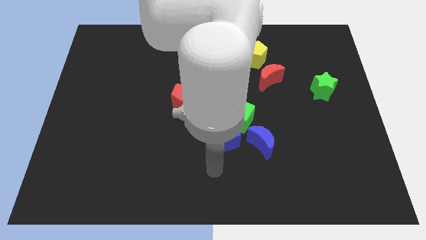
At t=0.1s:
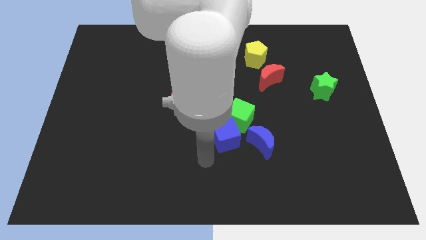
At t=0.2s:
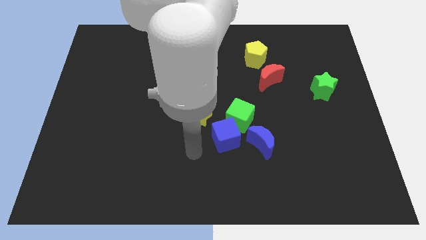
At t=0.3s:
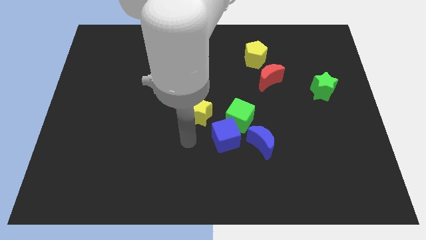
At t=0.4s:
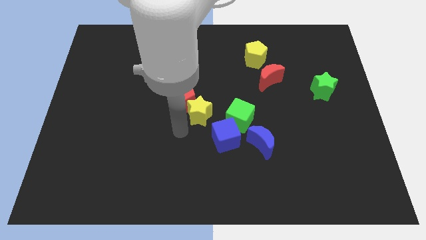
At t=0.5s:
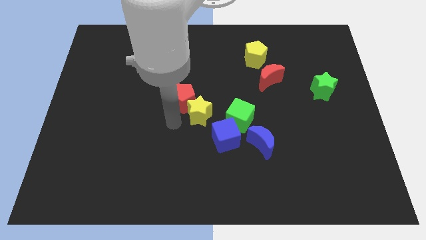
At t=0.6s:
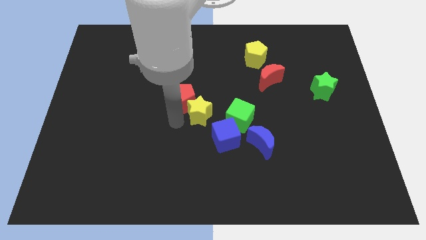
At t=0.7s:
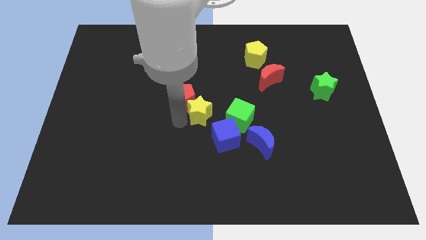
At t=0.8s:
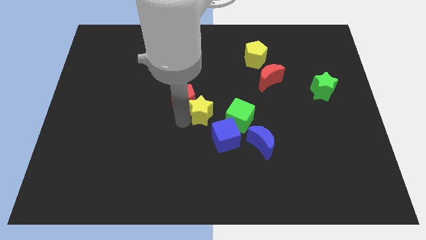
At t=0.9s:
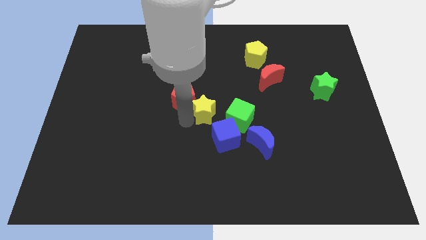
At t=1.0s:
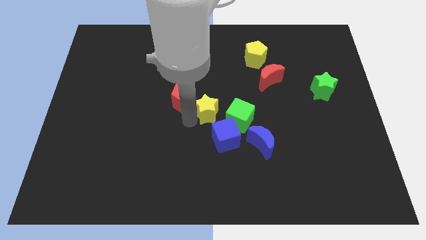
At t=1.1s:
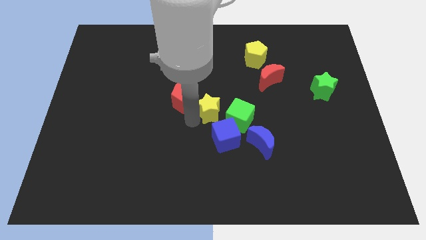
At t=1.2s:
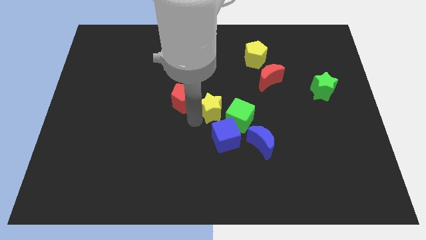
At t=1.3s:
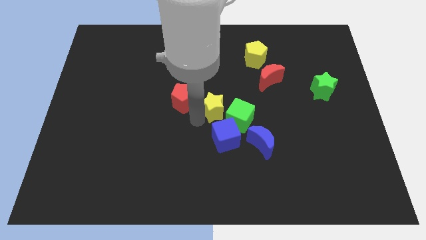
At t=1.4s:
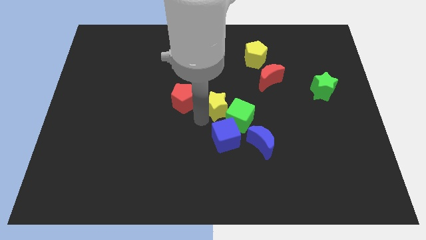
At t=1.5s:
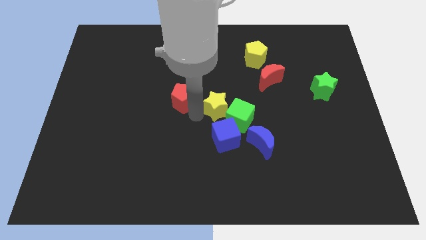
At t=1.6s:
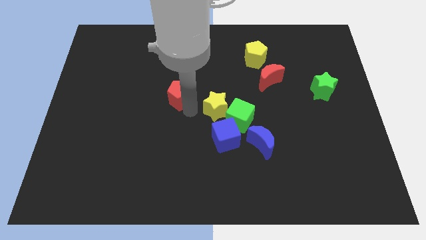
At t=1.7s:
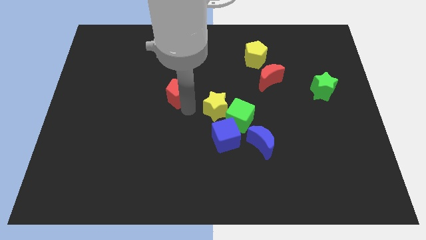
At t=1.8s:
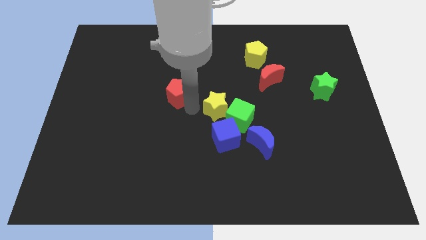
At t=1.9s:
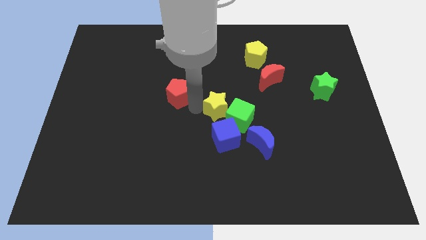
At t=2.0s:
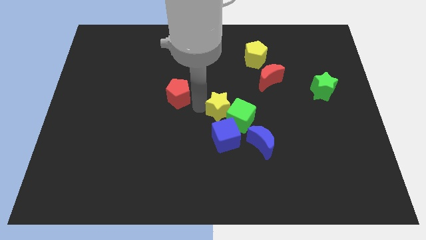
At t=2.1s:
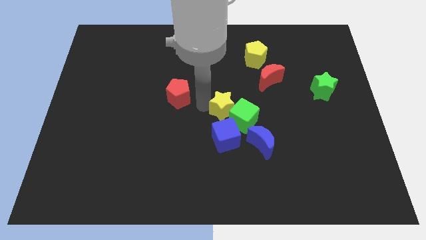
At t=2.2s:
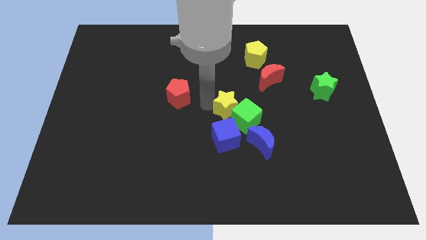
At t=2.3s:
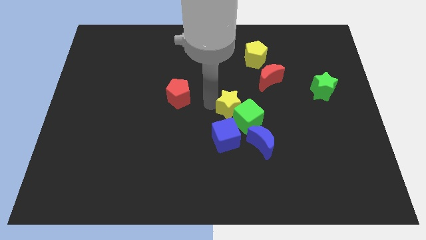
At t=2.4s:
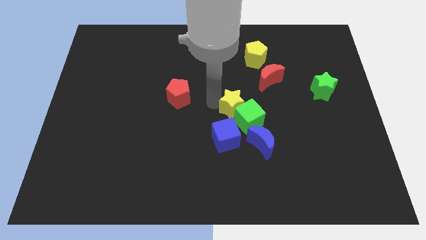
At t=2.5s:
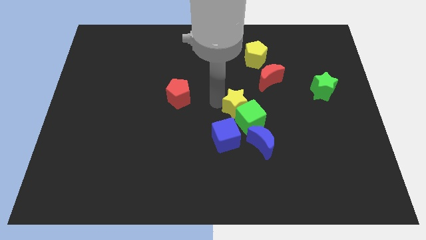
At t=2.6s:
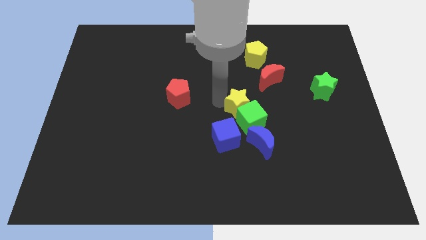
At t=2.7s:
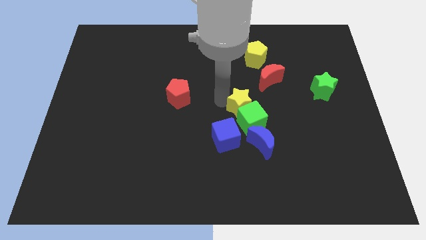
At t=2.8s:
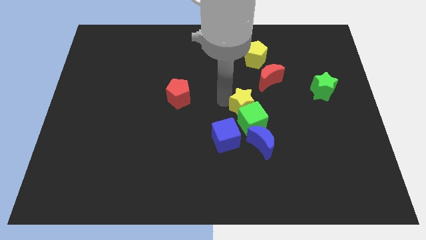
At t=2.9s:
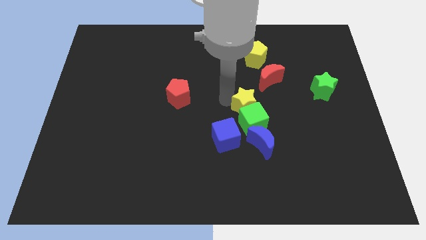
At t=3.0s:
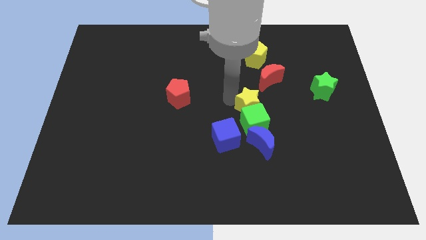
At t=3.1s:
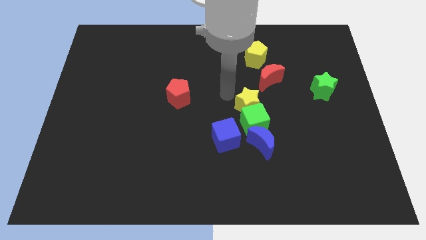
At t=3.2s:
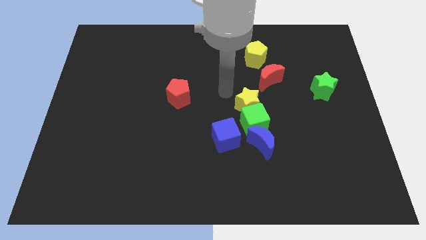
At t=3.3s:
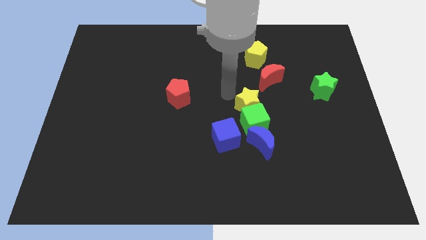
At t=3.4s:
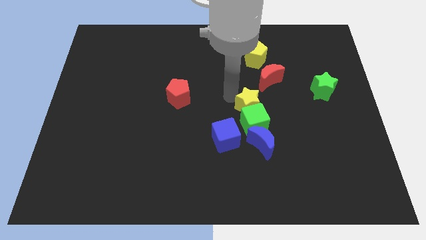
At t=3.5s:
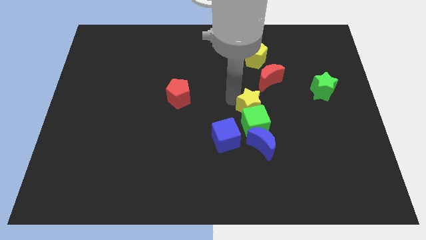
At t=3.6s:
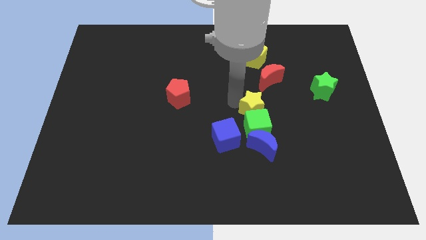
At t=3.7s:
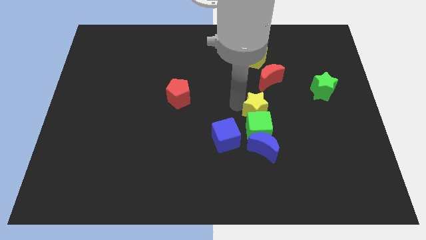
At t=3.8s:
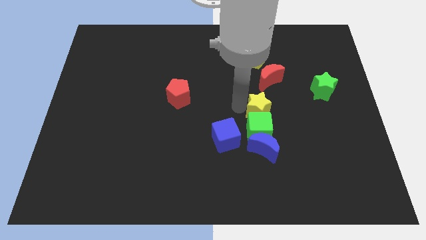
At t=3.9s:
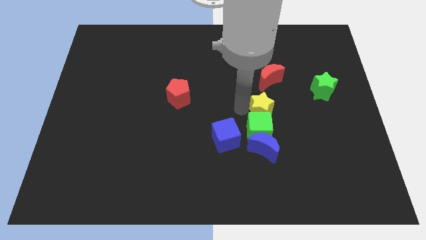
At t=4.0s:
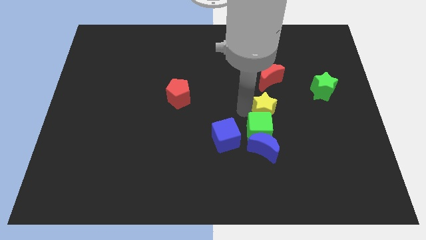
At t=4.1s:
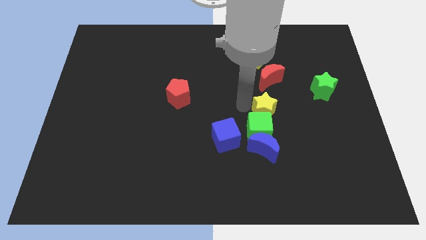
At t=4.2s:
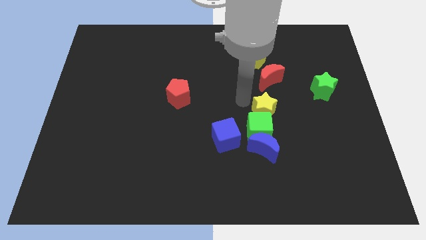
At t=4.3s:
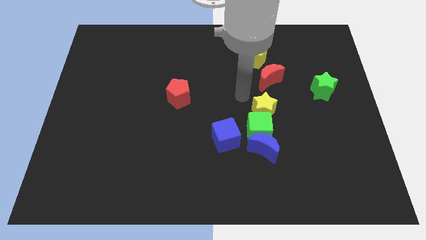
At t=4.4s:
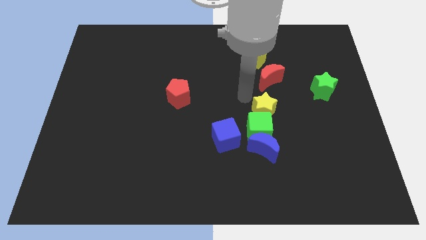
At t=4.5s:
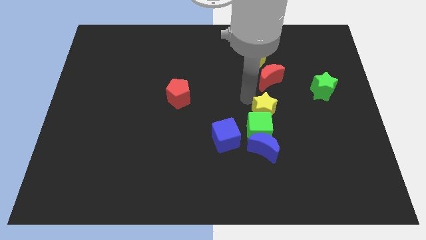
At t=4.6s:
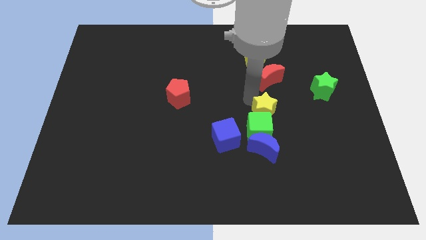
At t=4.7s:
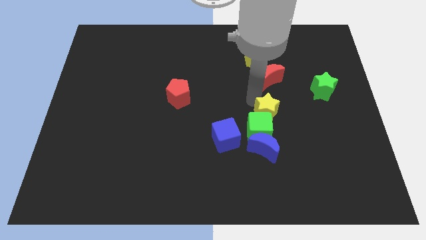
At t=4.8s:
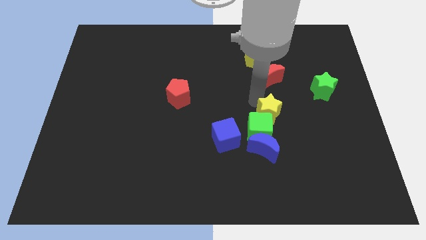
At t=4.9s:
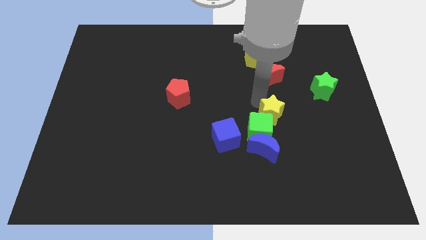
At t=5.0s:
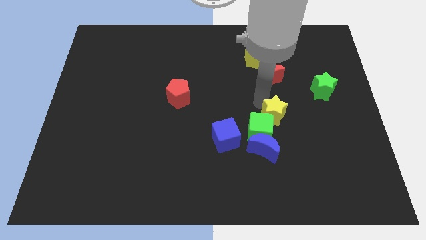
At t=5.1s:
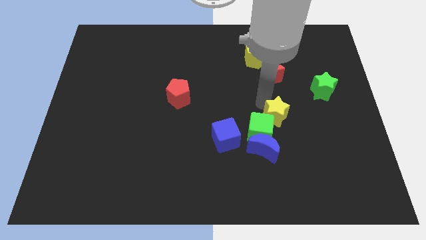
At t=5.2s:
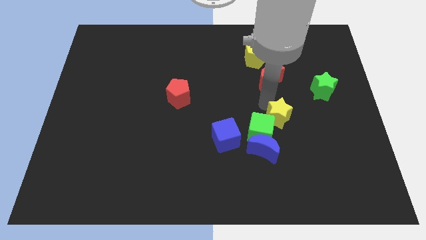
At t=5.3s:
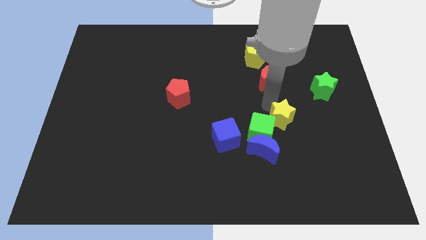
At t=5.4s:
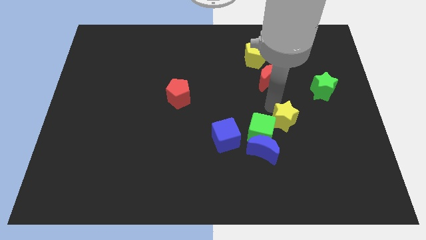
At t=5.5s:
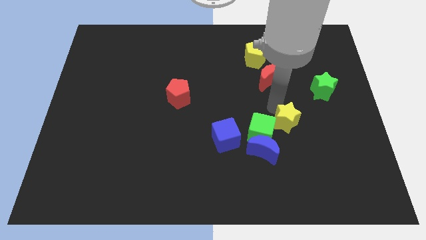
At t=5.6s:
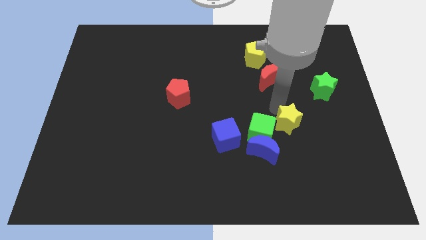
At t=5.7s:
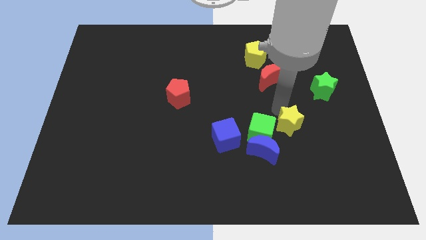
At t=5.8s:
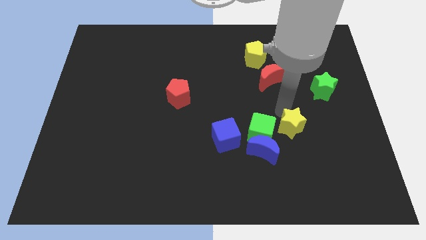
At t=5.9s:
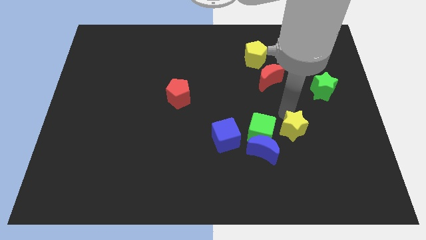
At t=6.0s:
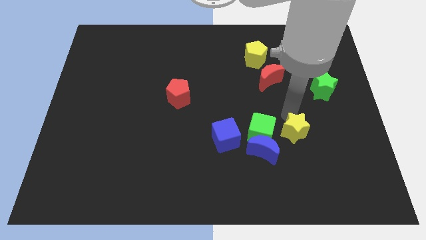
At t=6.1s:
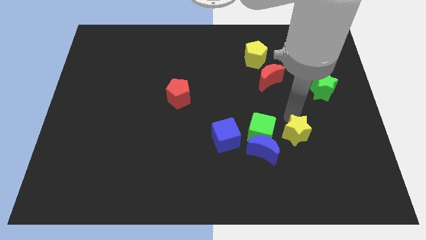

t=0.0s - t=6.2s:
slide the yellow star just right of the blue moon
